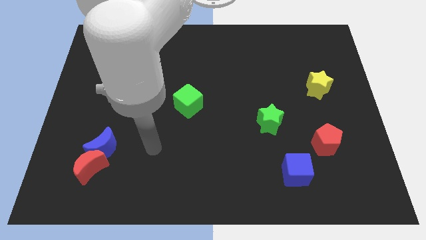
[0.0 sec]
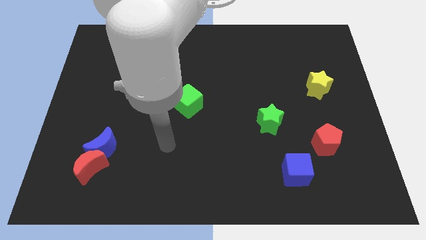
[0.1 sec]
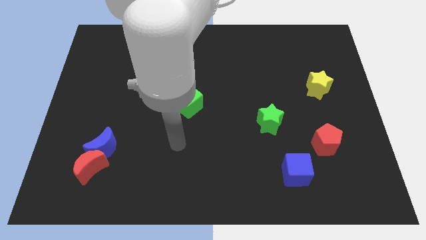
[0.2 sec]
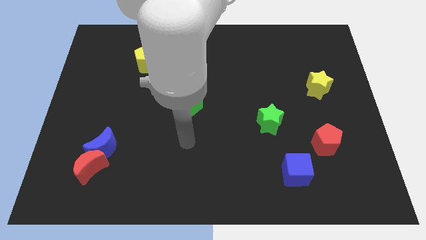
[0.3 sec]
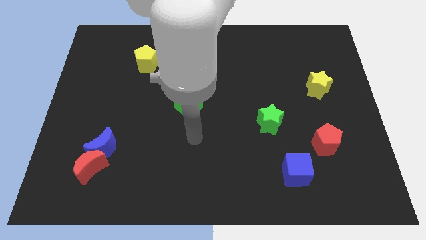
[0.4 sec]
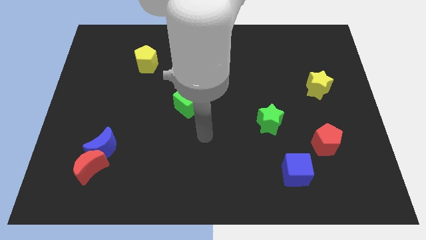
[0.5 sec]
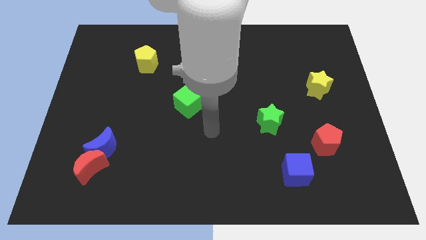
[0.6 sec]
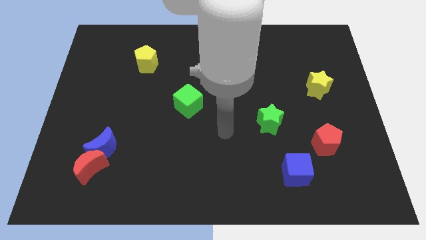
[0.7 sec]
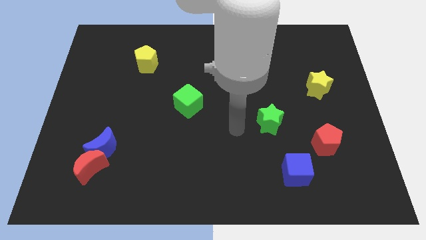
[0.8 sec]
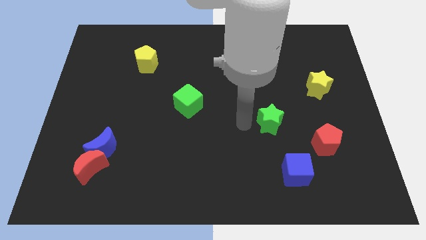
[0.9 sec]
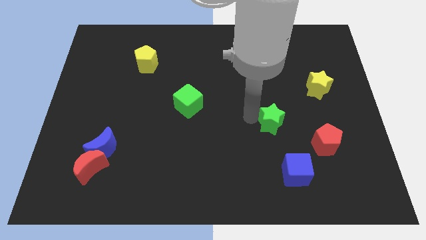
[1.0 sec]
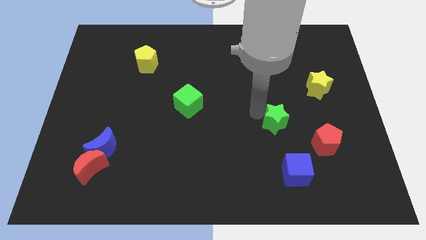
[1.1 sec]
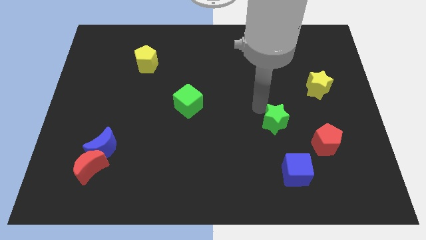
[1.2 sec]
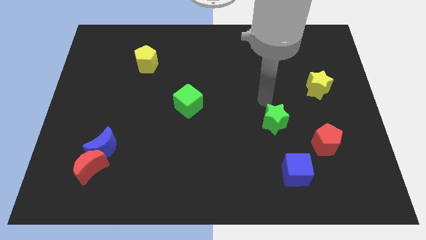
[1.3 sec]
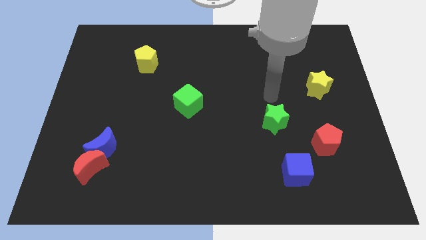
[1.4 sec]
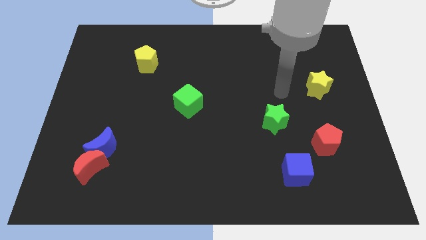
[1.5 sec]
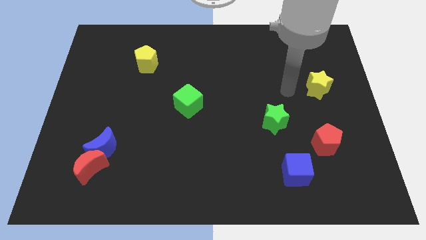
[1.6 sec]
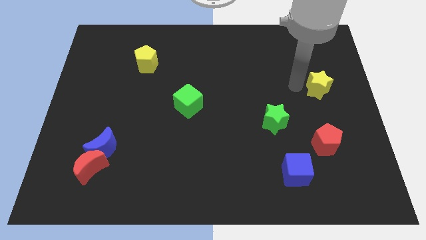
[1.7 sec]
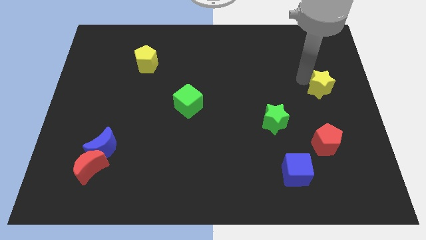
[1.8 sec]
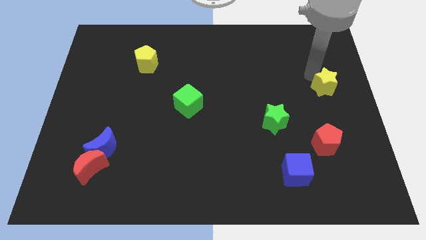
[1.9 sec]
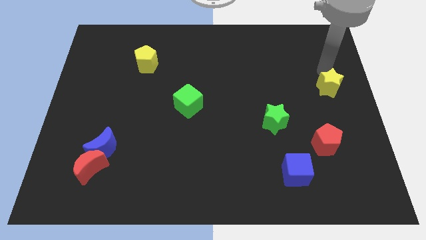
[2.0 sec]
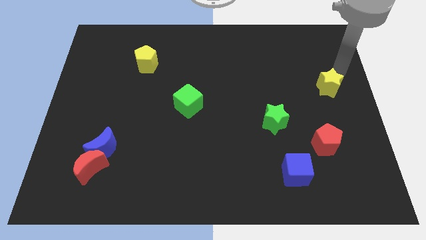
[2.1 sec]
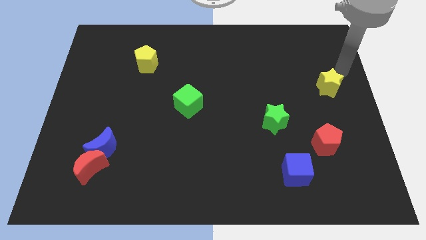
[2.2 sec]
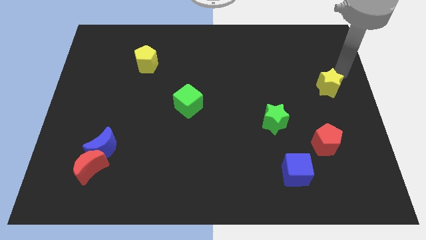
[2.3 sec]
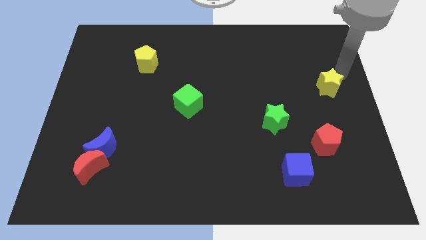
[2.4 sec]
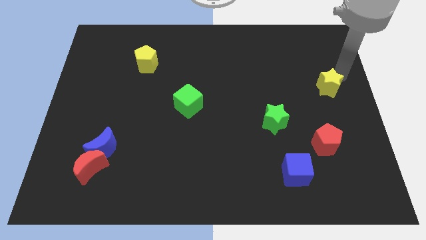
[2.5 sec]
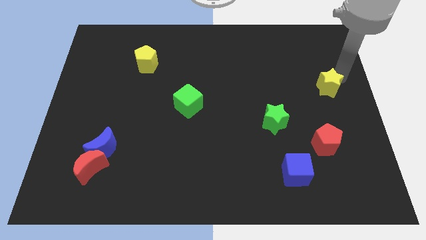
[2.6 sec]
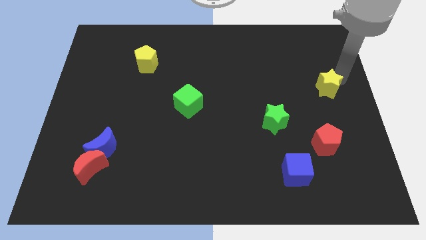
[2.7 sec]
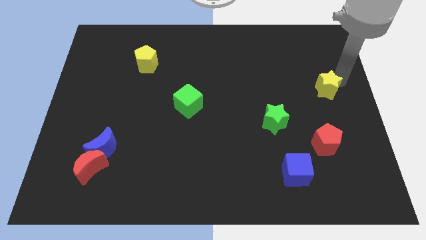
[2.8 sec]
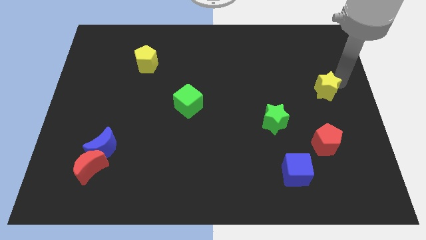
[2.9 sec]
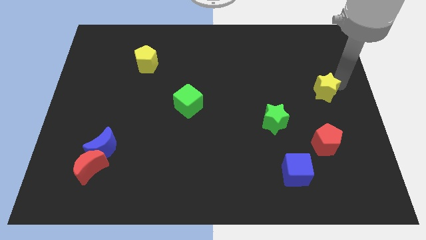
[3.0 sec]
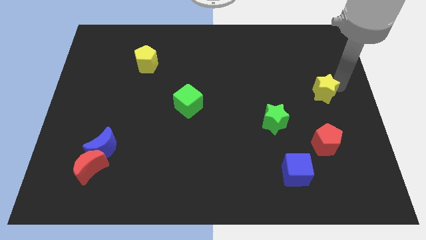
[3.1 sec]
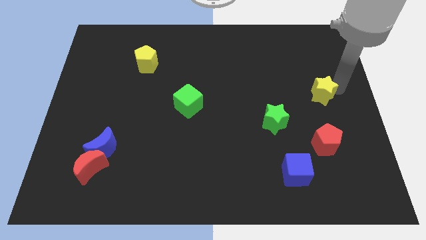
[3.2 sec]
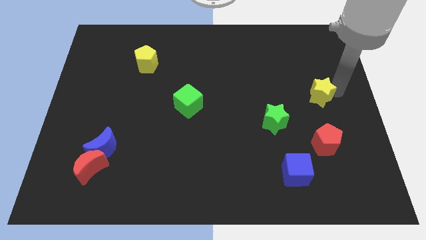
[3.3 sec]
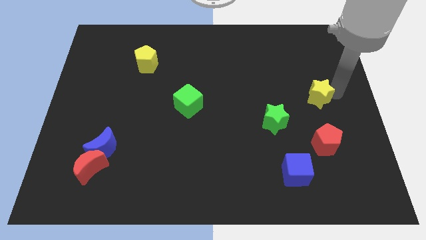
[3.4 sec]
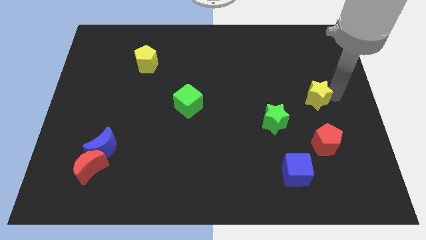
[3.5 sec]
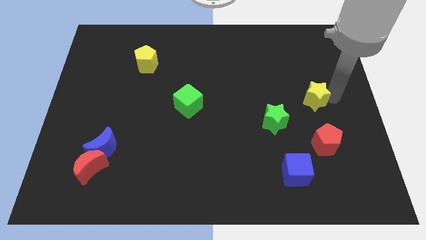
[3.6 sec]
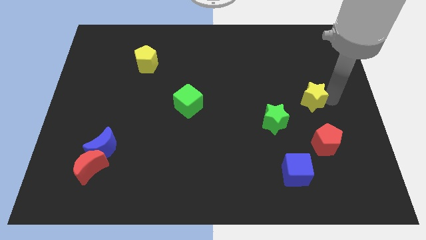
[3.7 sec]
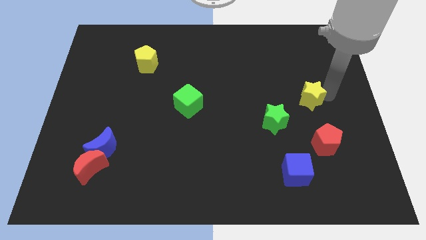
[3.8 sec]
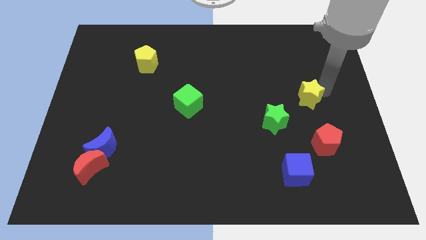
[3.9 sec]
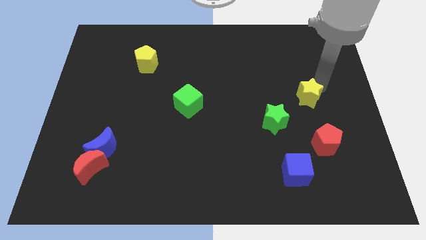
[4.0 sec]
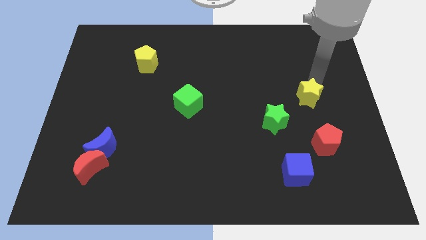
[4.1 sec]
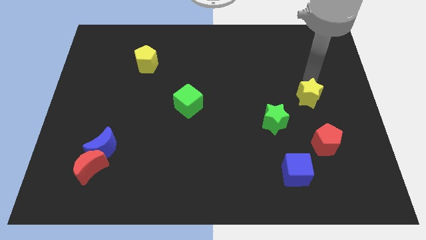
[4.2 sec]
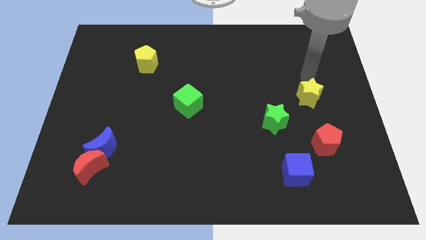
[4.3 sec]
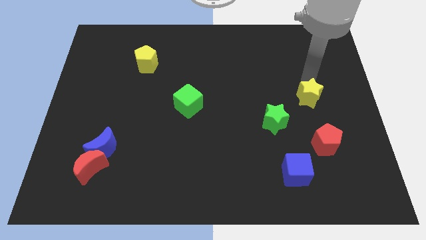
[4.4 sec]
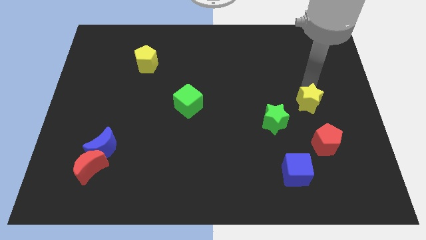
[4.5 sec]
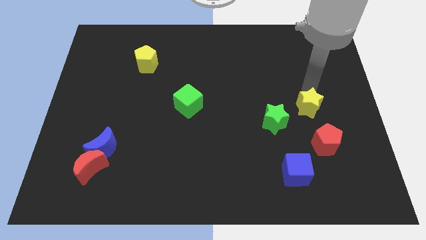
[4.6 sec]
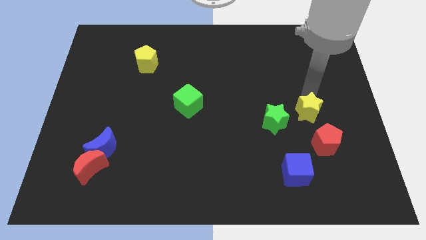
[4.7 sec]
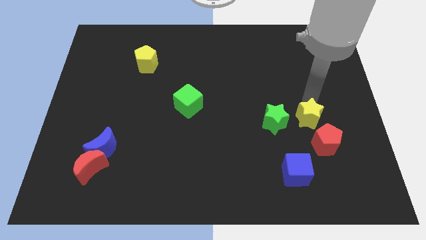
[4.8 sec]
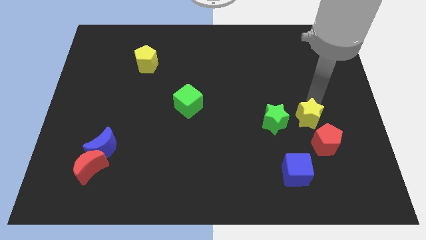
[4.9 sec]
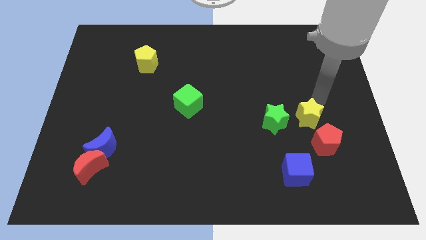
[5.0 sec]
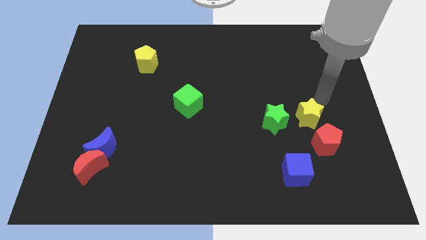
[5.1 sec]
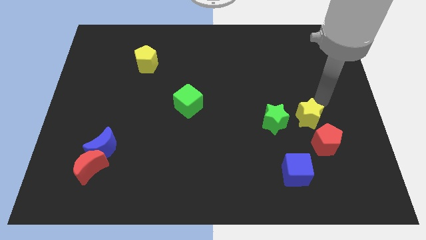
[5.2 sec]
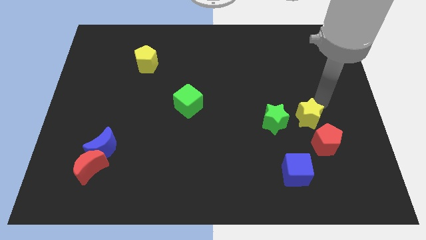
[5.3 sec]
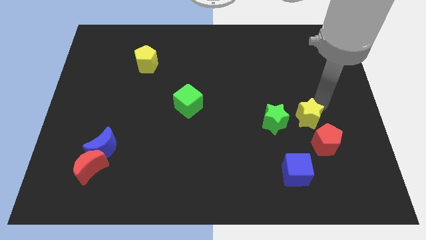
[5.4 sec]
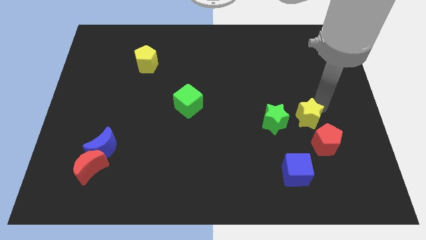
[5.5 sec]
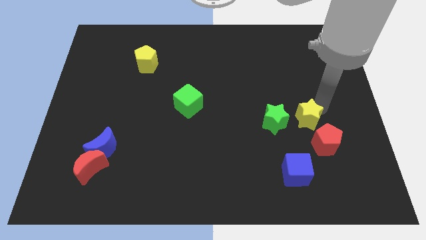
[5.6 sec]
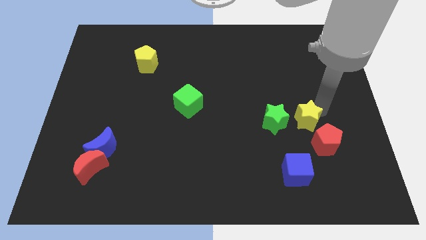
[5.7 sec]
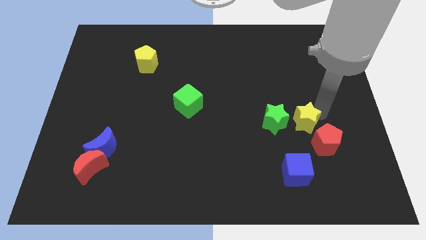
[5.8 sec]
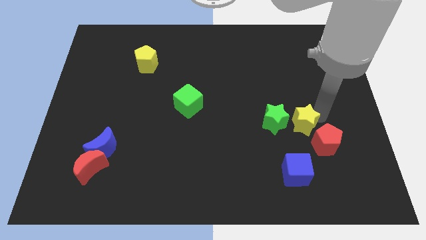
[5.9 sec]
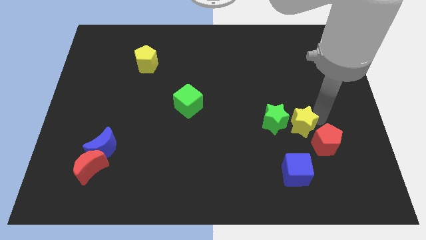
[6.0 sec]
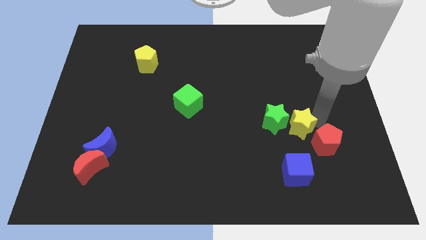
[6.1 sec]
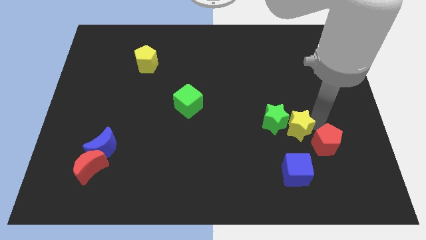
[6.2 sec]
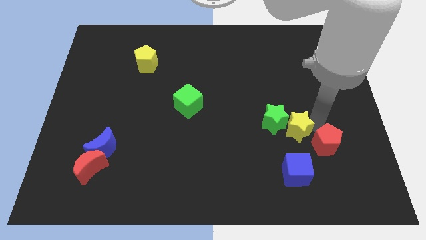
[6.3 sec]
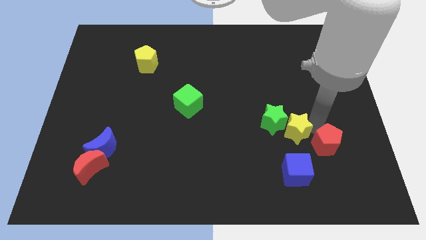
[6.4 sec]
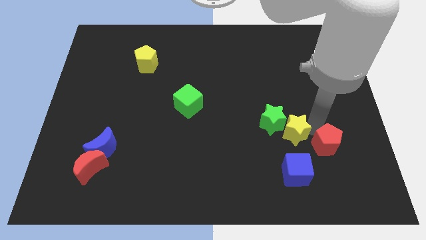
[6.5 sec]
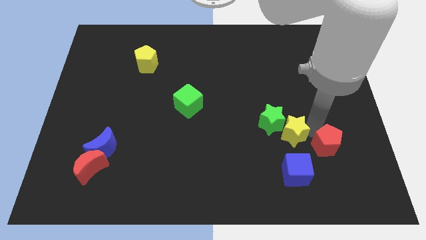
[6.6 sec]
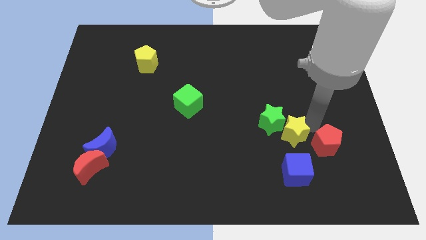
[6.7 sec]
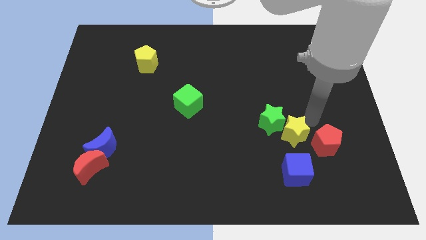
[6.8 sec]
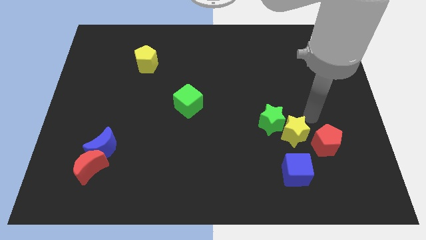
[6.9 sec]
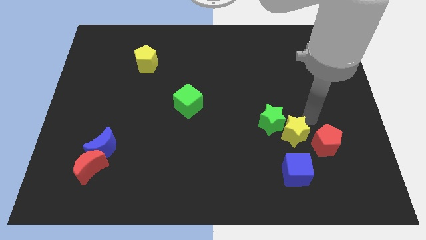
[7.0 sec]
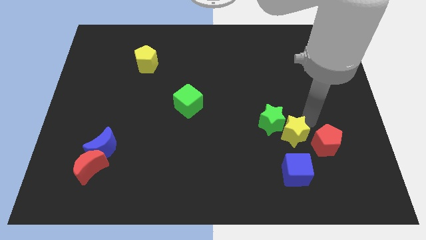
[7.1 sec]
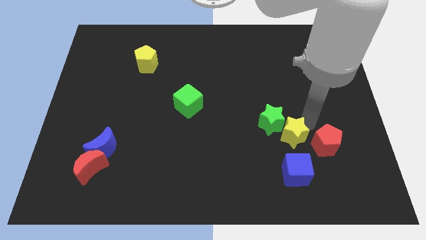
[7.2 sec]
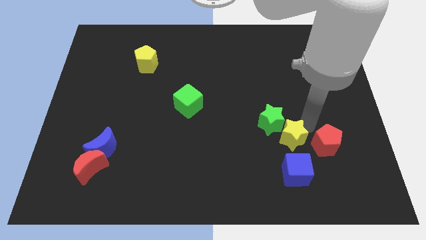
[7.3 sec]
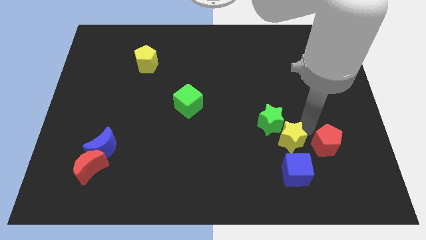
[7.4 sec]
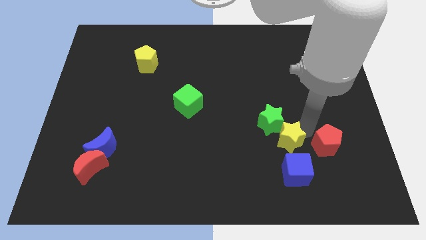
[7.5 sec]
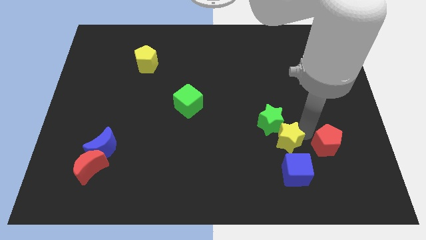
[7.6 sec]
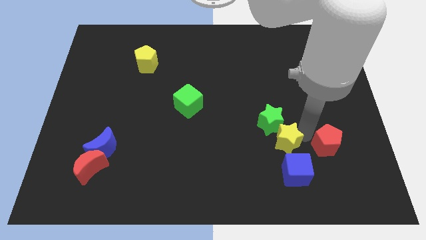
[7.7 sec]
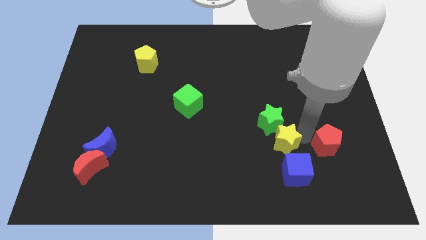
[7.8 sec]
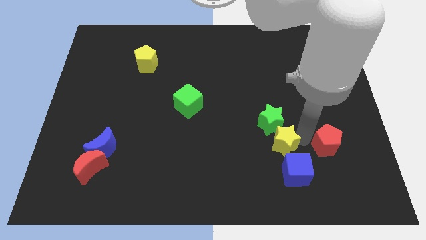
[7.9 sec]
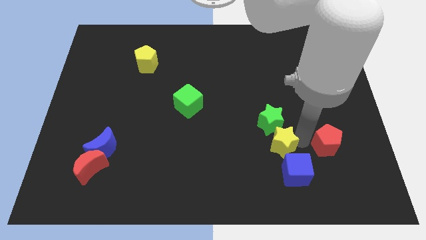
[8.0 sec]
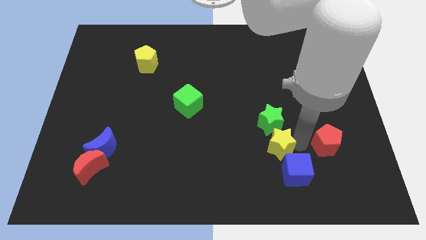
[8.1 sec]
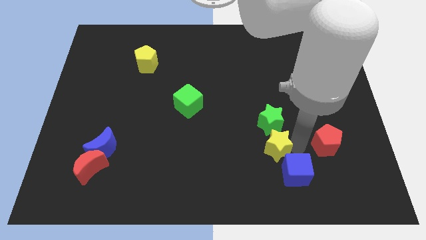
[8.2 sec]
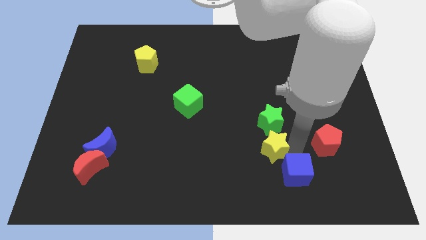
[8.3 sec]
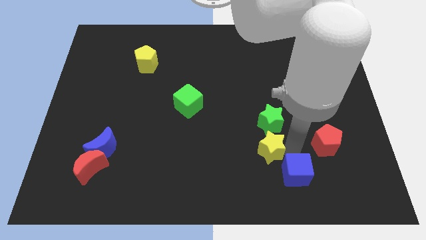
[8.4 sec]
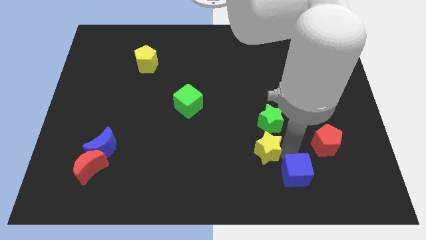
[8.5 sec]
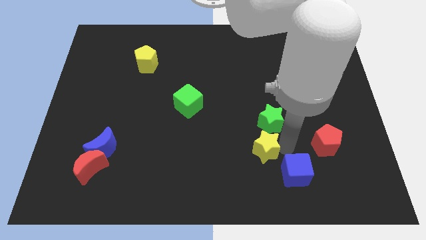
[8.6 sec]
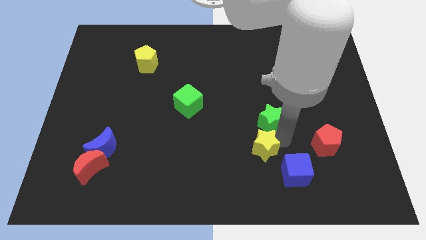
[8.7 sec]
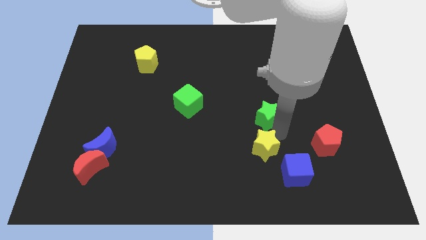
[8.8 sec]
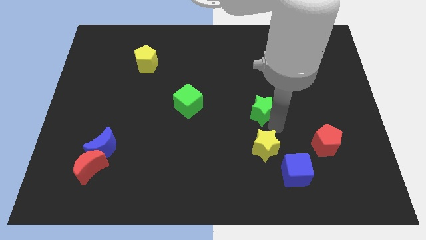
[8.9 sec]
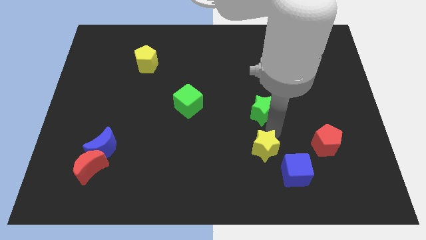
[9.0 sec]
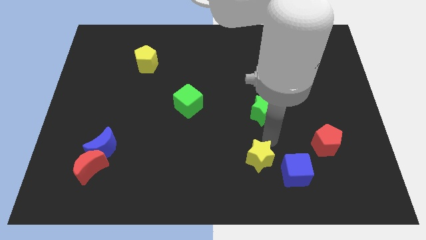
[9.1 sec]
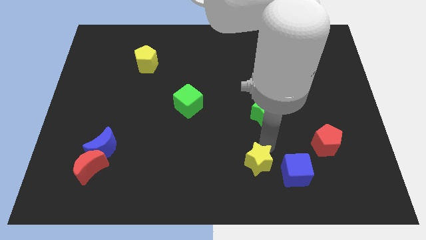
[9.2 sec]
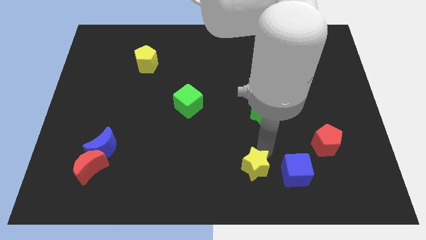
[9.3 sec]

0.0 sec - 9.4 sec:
slide the yellow star to the bottom
